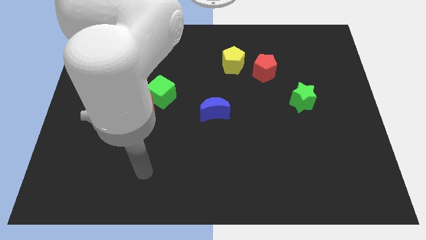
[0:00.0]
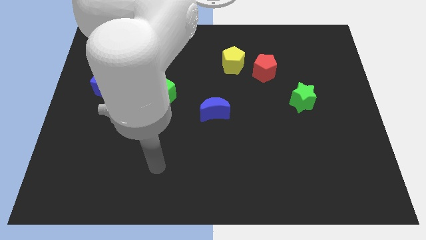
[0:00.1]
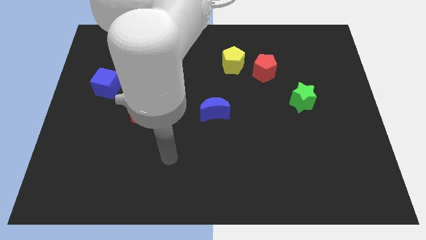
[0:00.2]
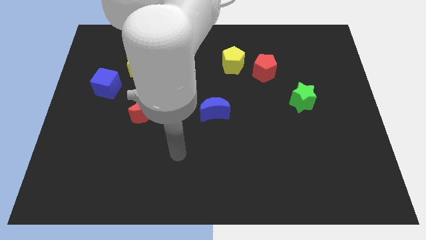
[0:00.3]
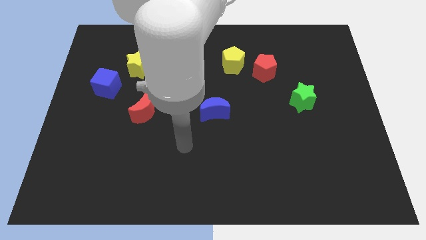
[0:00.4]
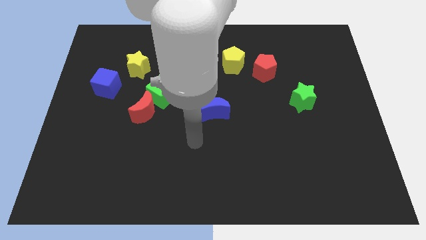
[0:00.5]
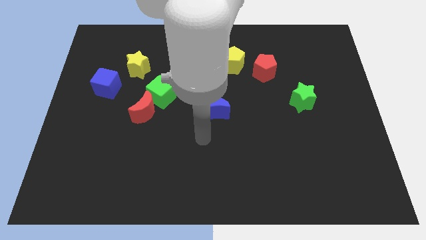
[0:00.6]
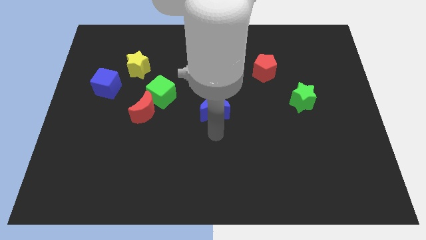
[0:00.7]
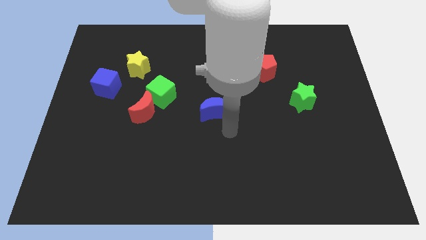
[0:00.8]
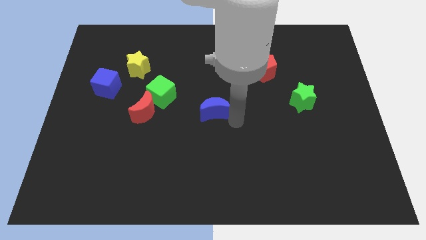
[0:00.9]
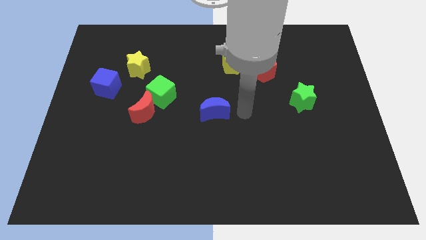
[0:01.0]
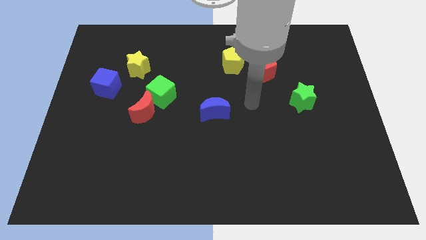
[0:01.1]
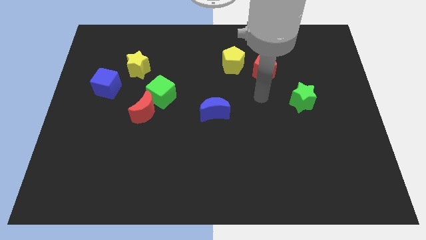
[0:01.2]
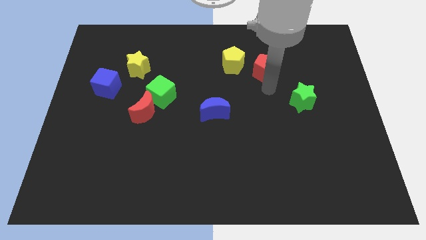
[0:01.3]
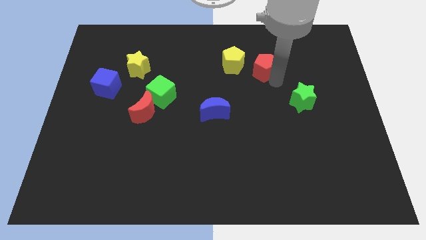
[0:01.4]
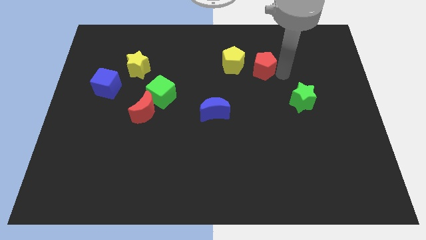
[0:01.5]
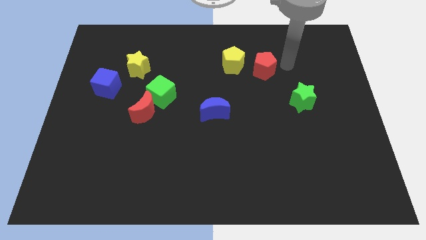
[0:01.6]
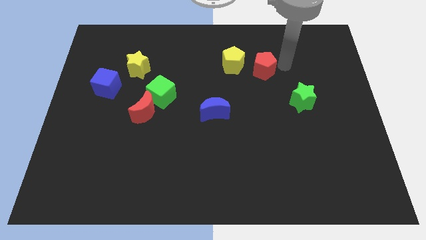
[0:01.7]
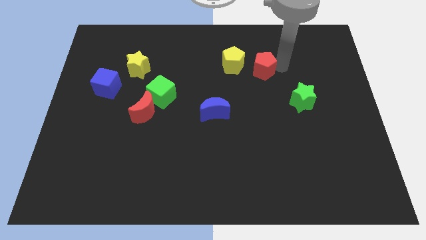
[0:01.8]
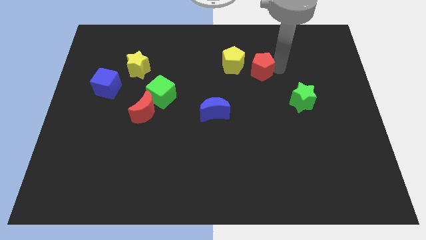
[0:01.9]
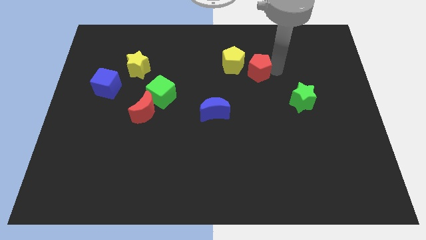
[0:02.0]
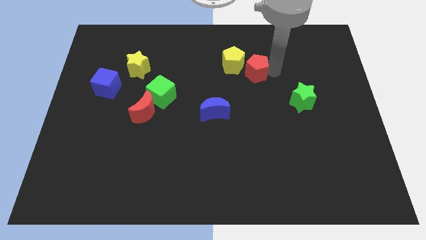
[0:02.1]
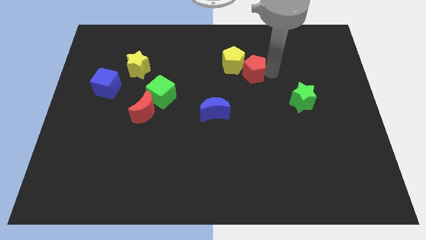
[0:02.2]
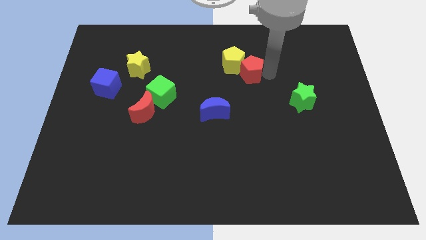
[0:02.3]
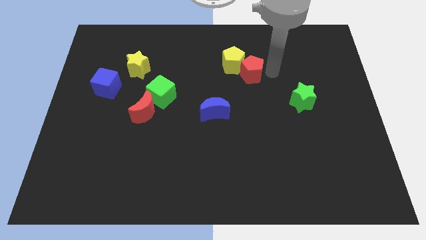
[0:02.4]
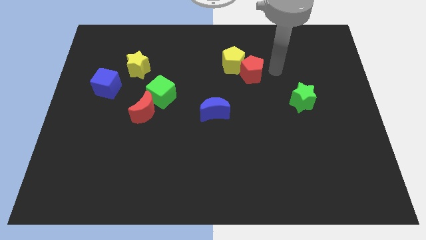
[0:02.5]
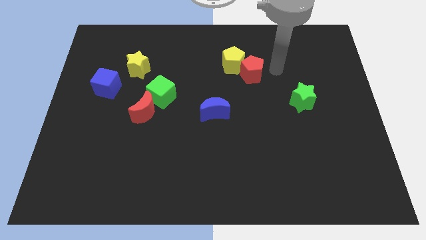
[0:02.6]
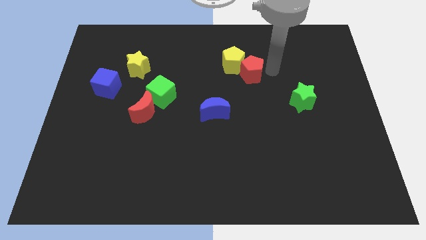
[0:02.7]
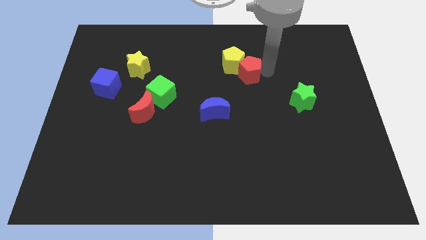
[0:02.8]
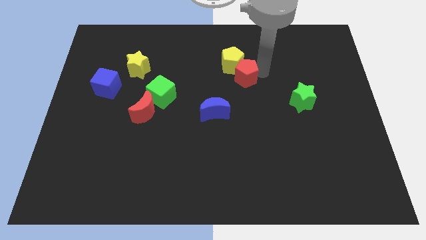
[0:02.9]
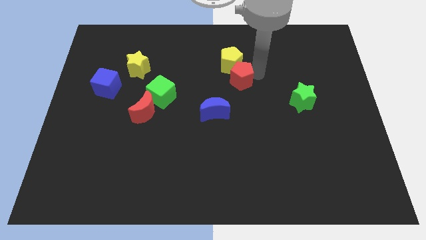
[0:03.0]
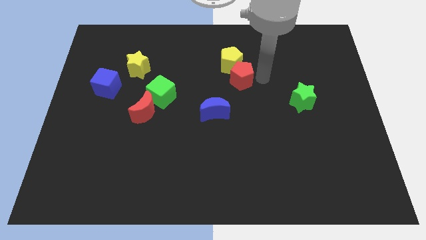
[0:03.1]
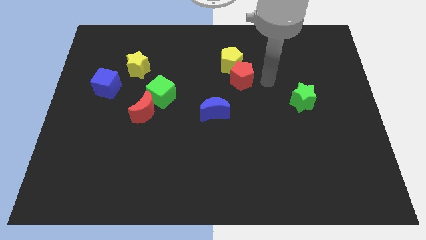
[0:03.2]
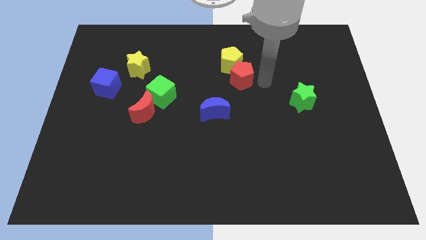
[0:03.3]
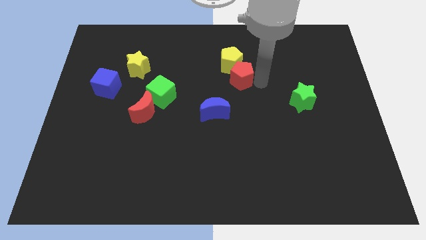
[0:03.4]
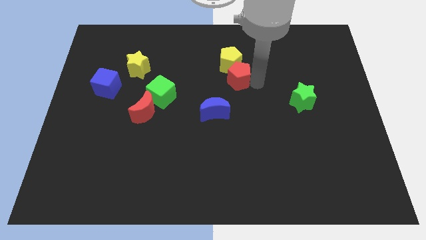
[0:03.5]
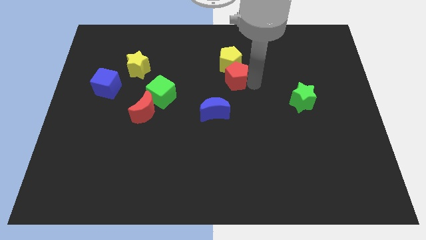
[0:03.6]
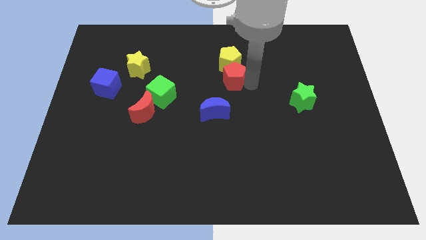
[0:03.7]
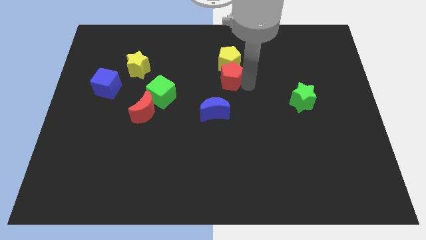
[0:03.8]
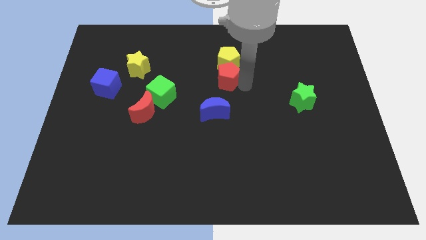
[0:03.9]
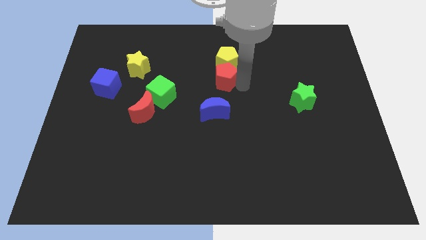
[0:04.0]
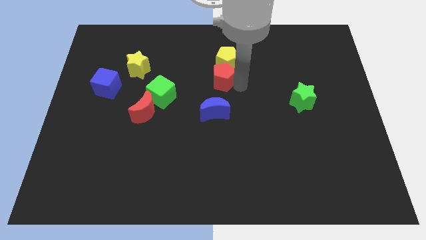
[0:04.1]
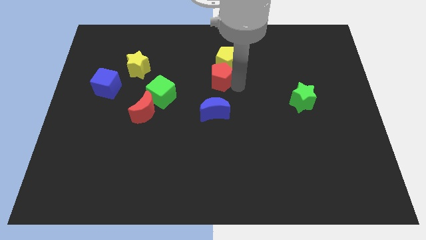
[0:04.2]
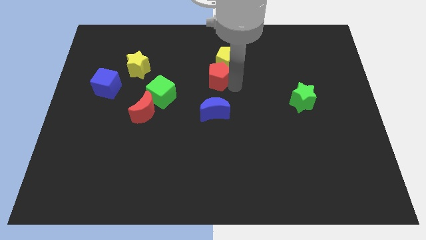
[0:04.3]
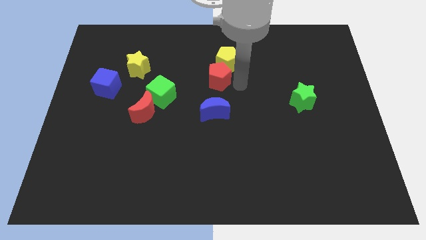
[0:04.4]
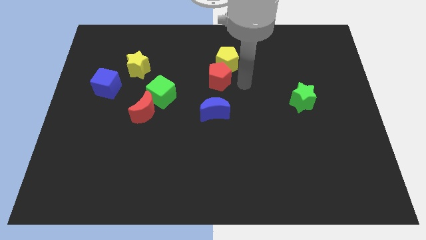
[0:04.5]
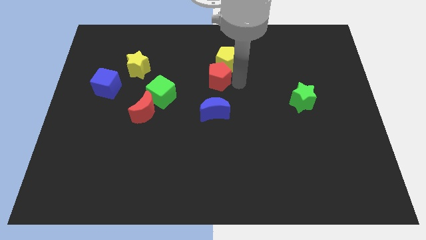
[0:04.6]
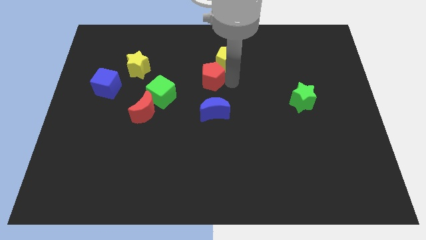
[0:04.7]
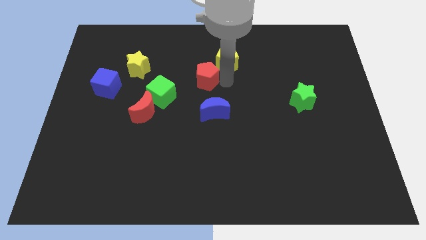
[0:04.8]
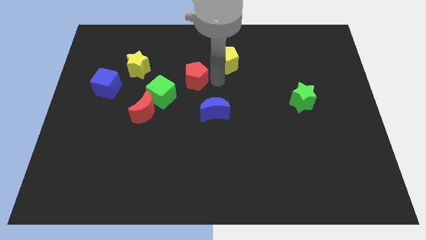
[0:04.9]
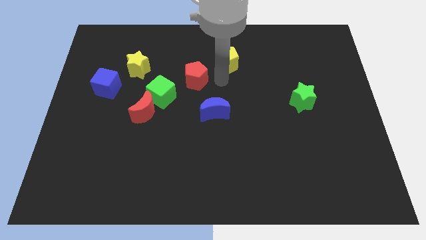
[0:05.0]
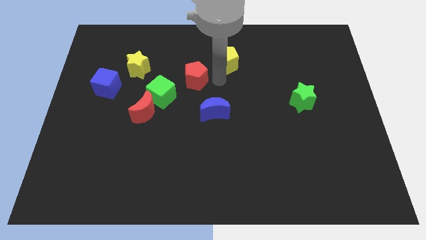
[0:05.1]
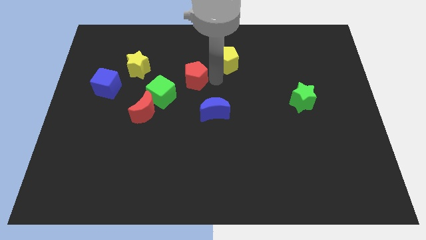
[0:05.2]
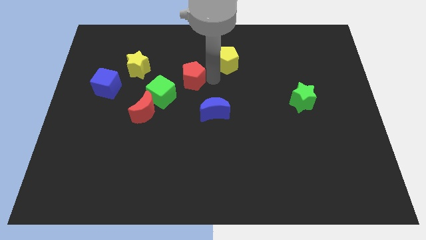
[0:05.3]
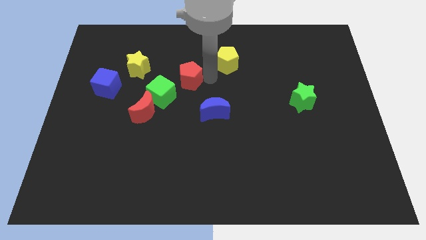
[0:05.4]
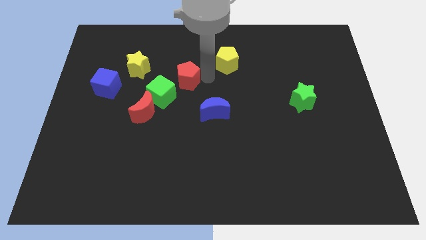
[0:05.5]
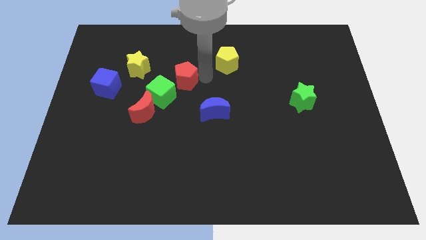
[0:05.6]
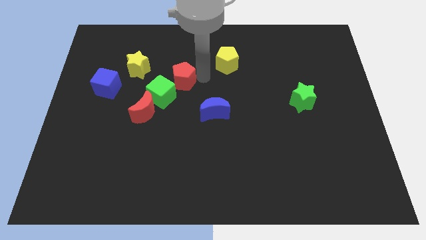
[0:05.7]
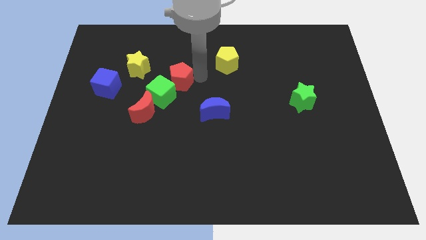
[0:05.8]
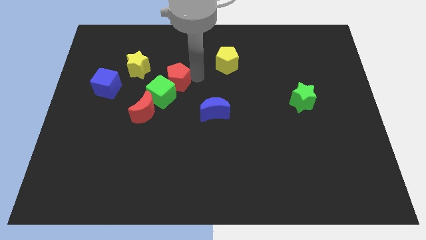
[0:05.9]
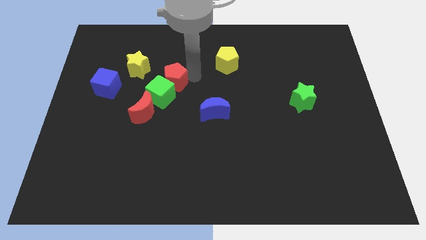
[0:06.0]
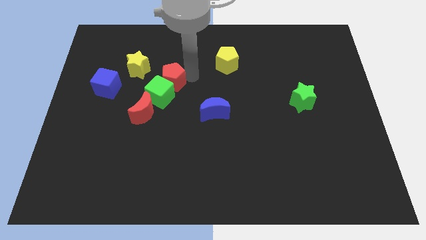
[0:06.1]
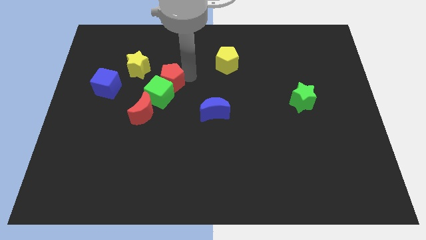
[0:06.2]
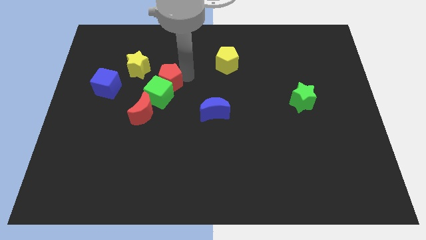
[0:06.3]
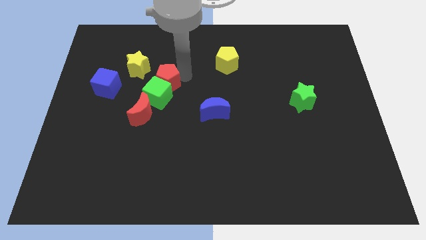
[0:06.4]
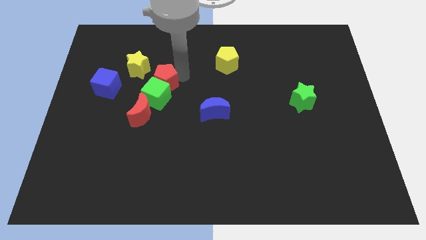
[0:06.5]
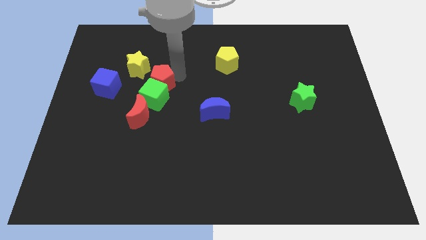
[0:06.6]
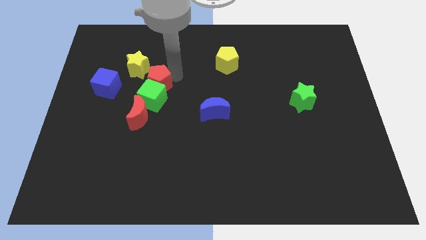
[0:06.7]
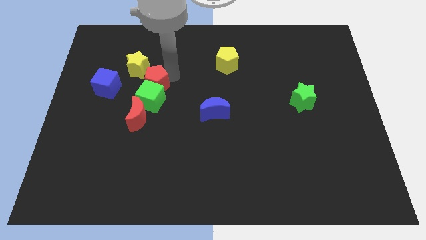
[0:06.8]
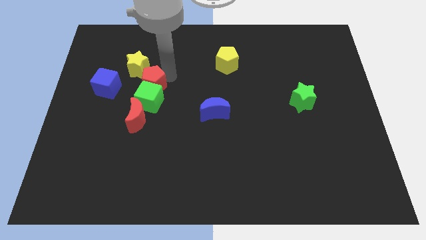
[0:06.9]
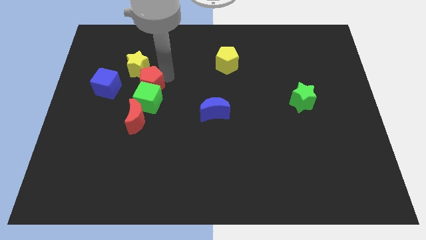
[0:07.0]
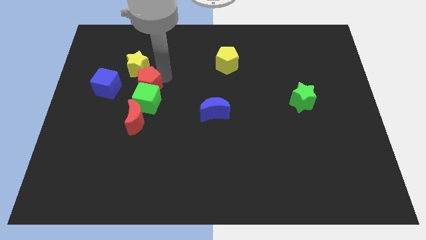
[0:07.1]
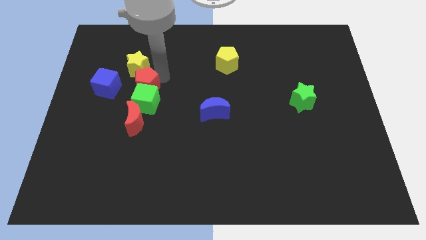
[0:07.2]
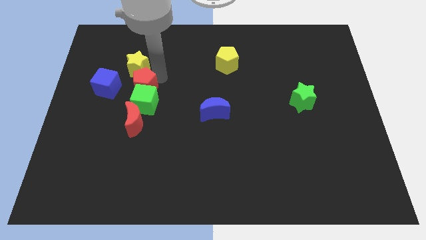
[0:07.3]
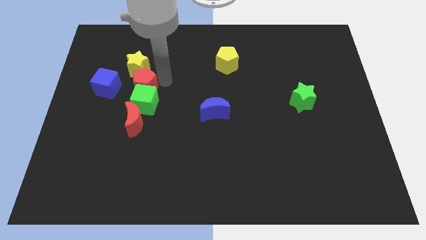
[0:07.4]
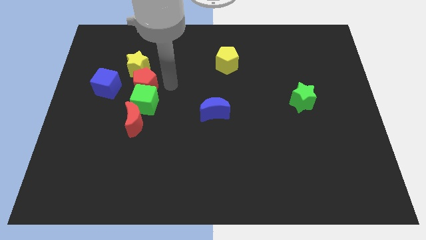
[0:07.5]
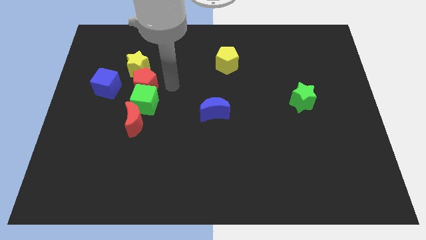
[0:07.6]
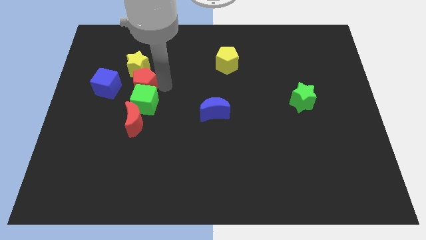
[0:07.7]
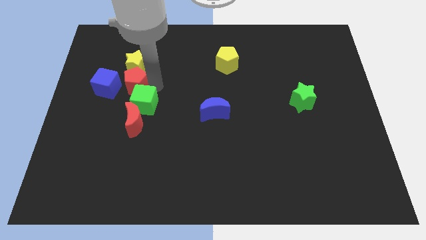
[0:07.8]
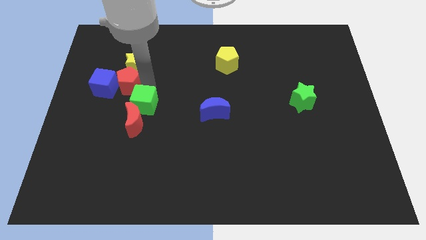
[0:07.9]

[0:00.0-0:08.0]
push the red pentagon close to the blue cube
